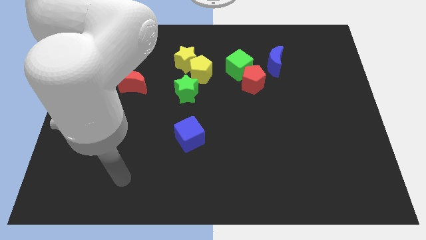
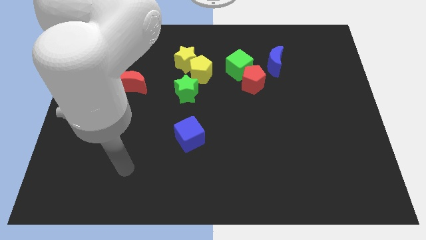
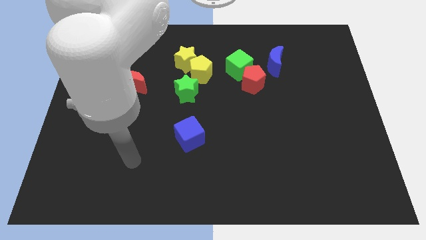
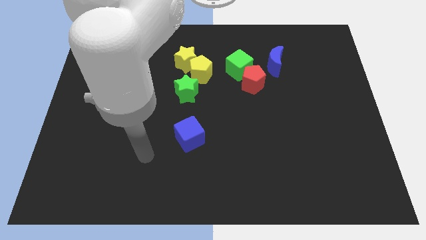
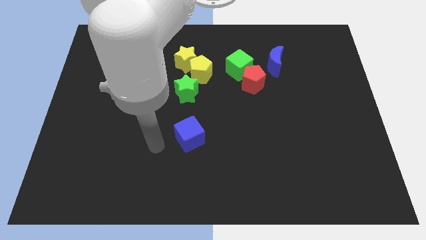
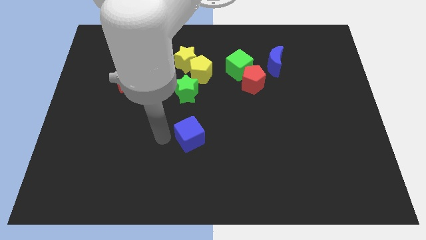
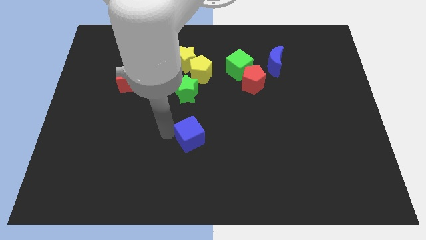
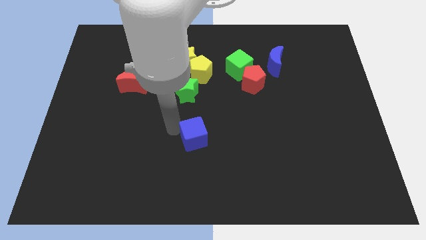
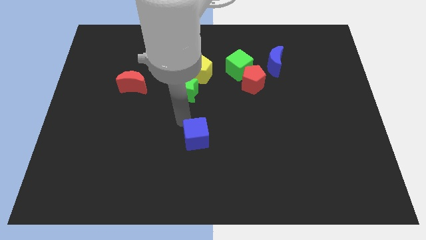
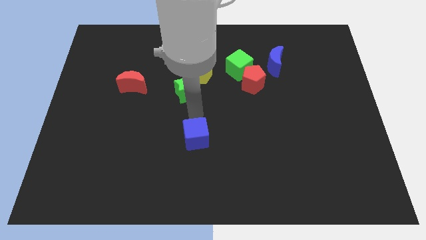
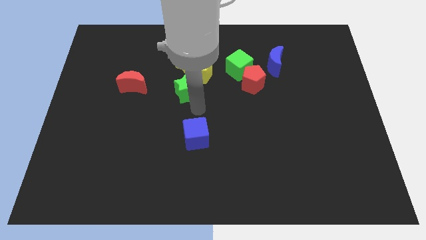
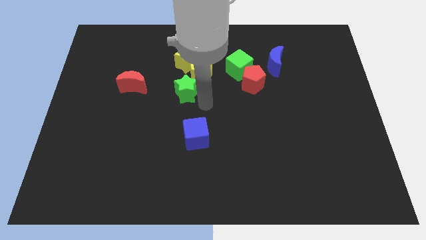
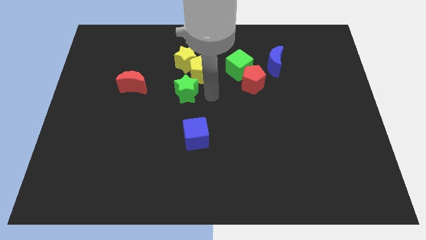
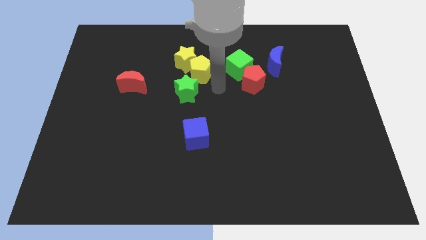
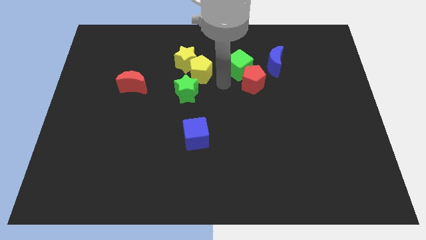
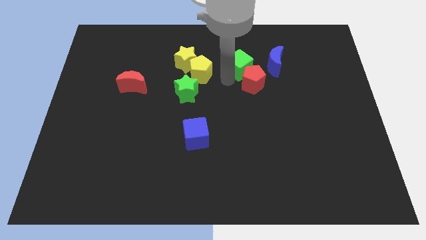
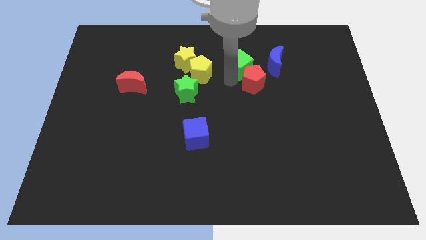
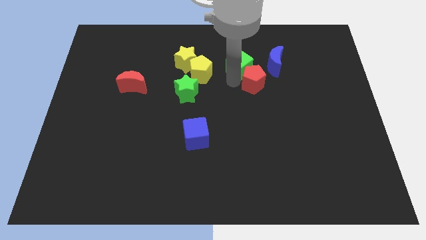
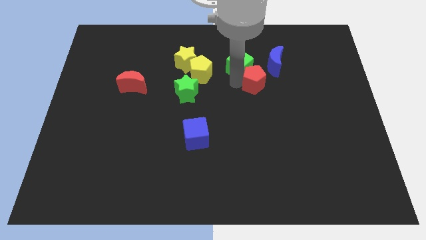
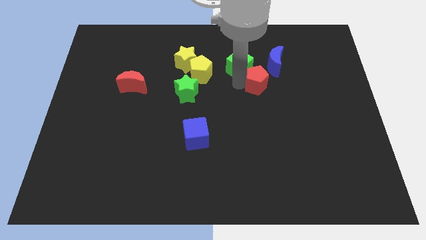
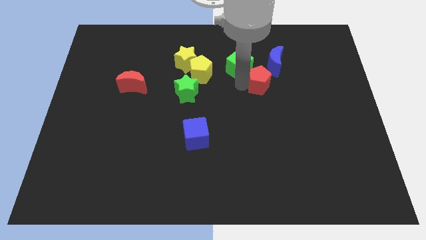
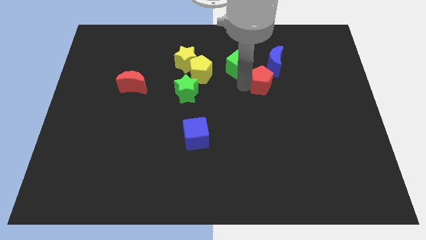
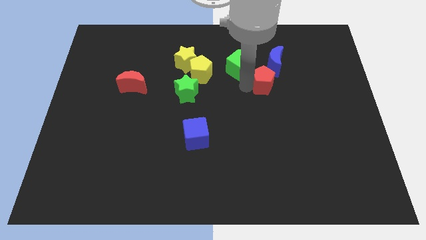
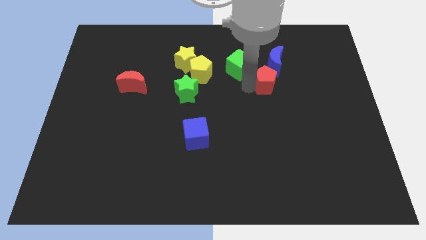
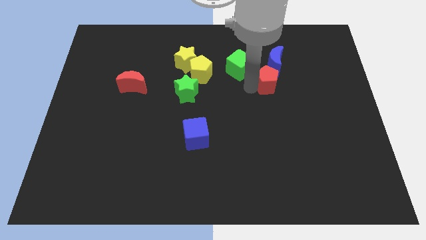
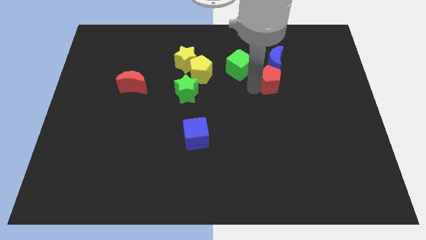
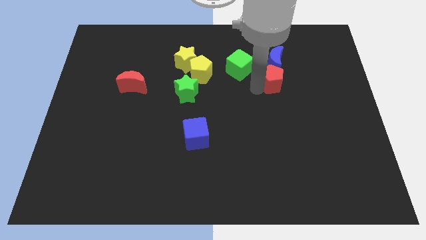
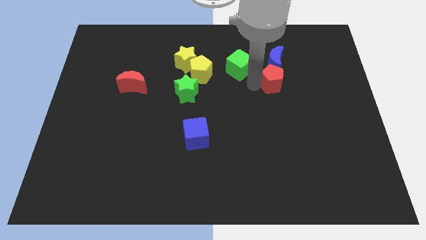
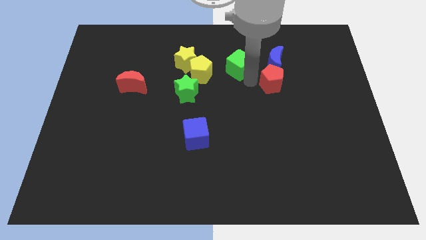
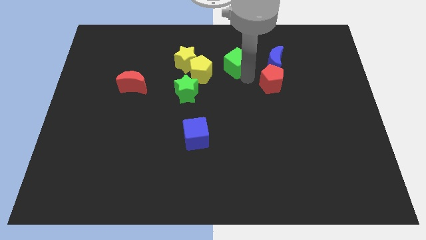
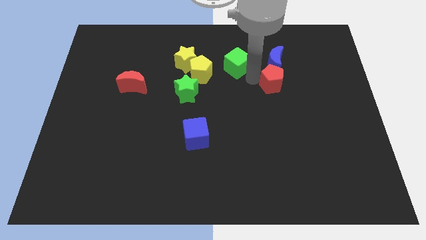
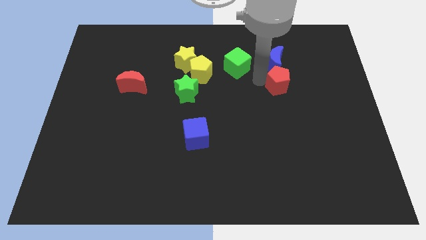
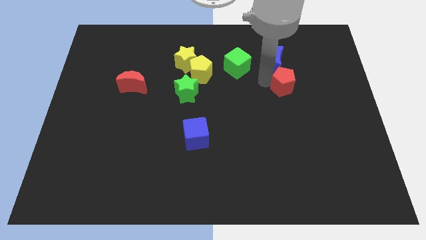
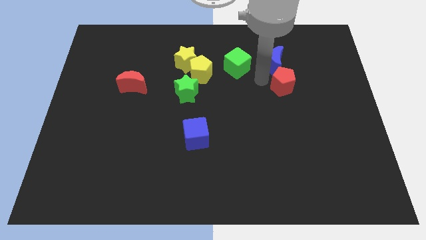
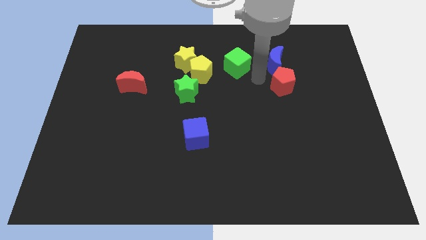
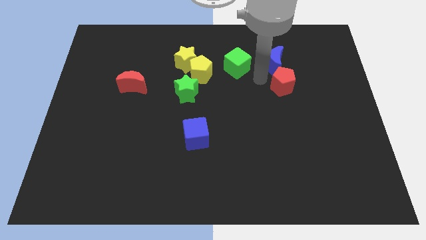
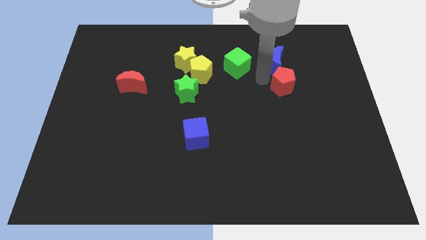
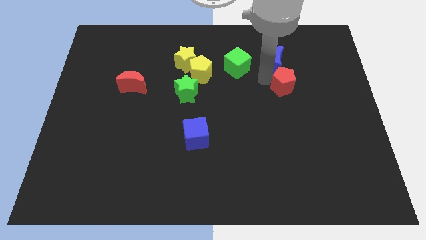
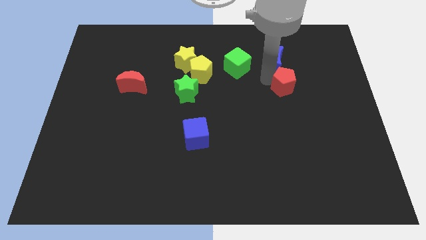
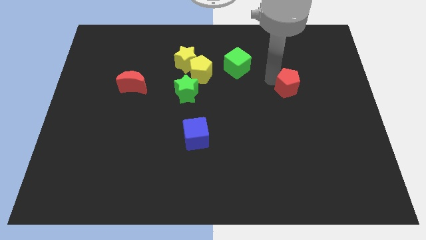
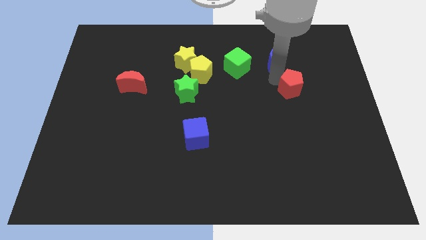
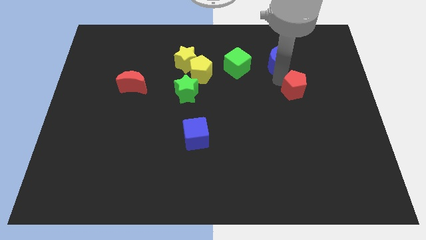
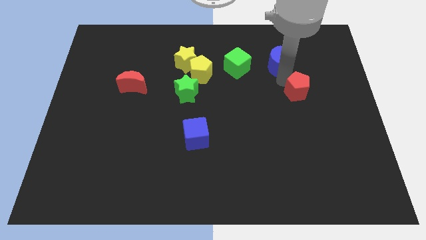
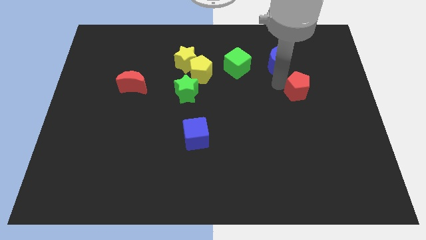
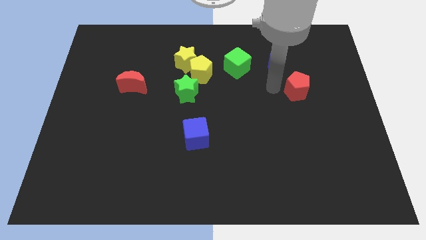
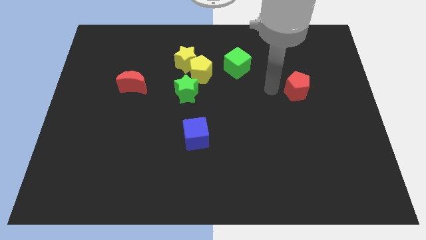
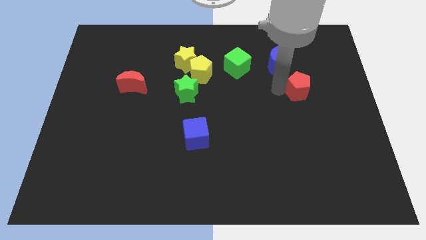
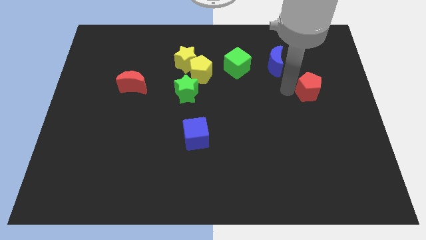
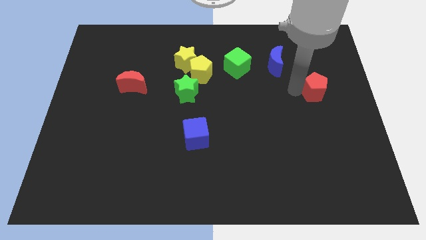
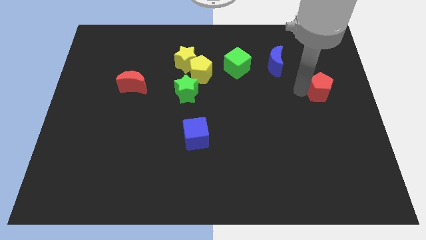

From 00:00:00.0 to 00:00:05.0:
push the red pentagon to the center right

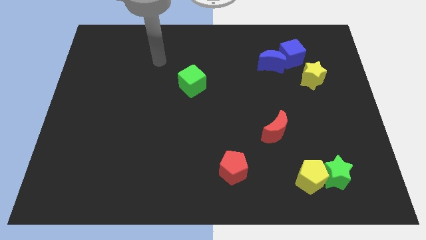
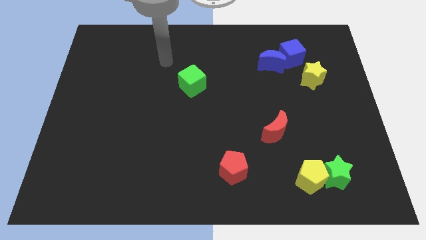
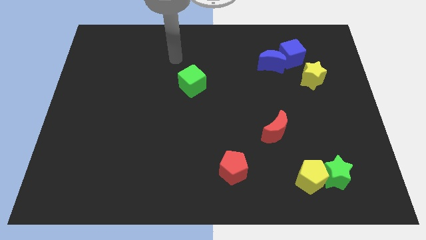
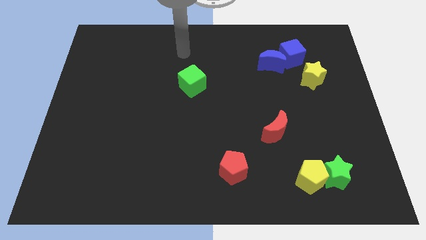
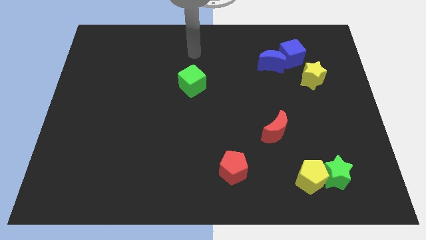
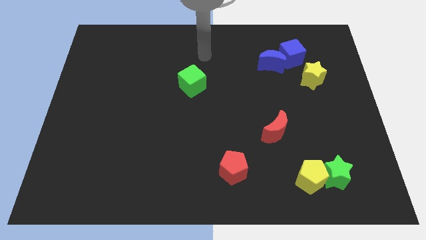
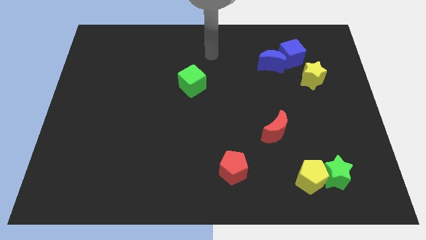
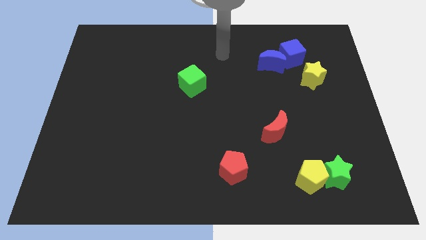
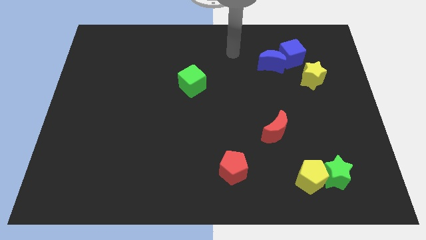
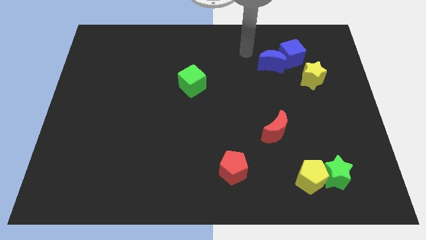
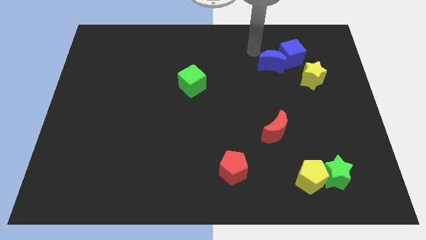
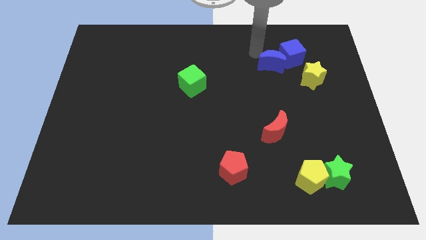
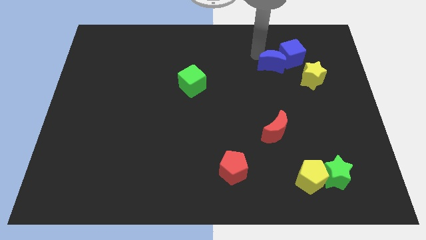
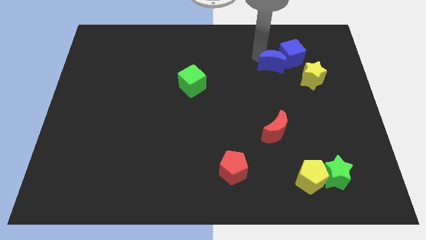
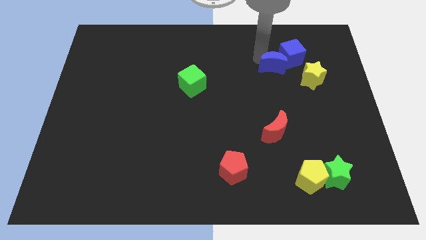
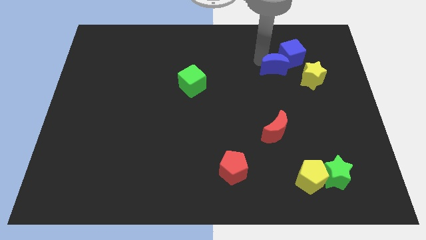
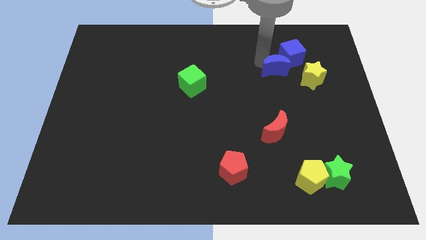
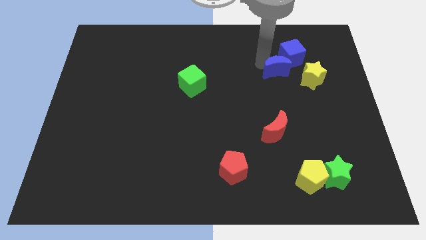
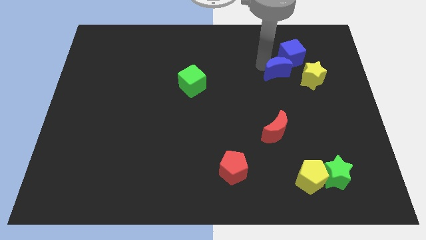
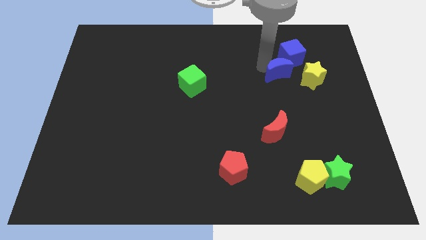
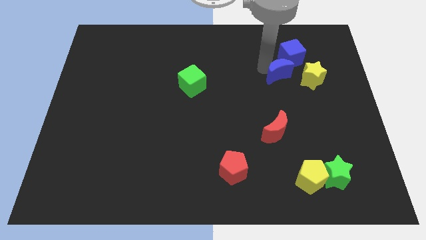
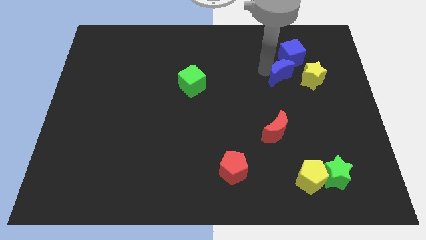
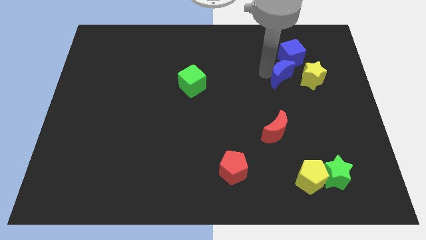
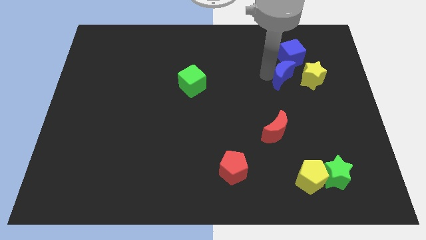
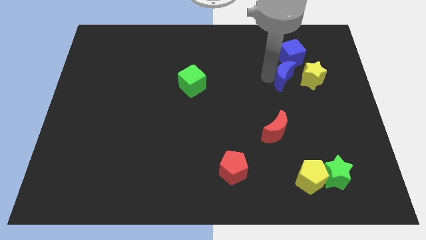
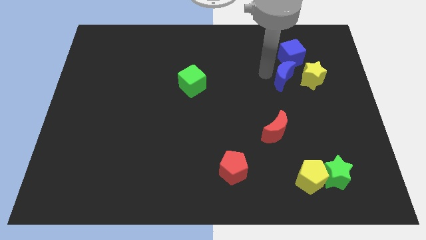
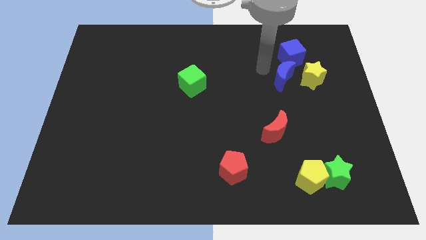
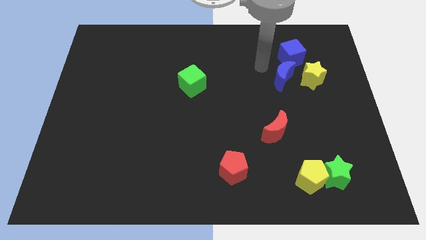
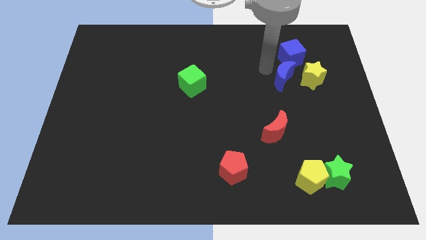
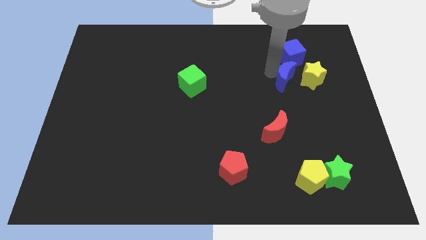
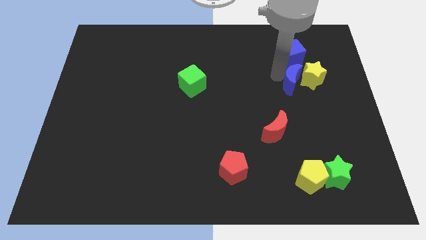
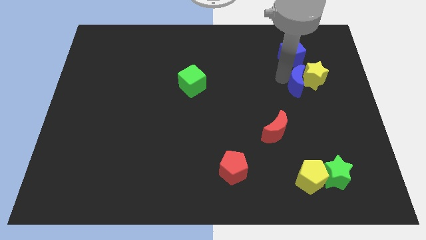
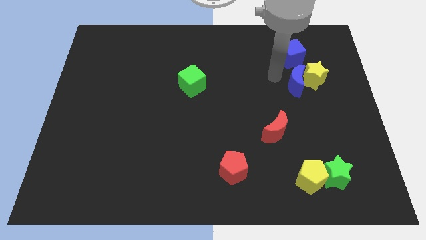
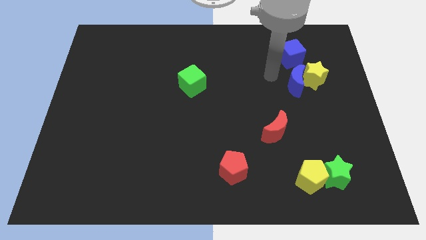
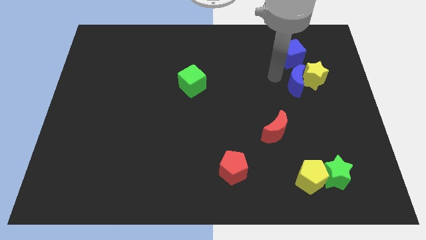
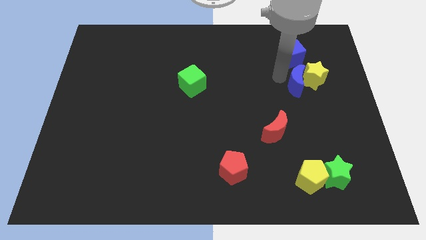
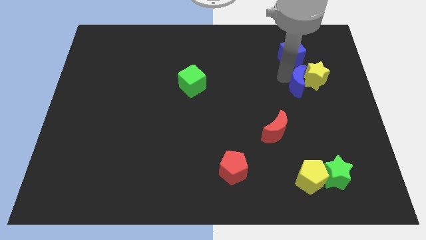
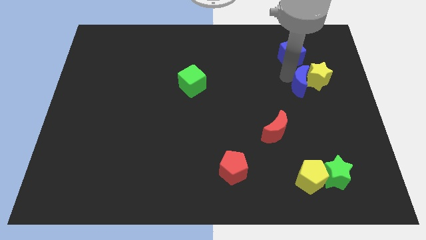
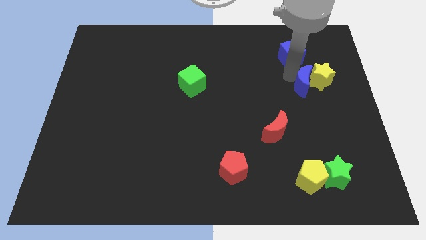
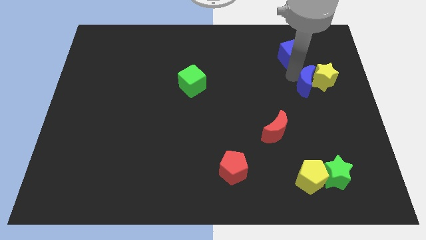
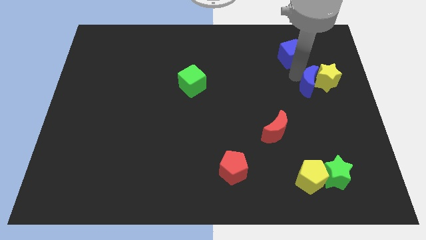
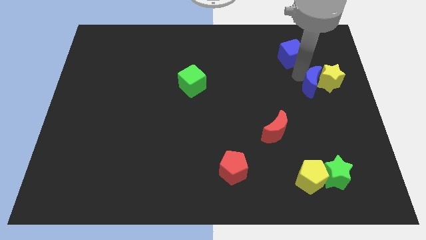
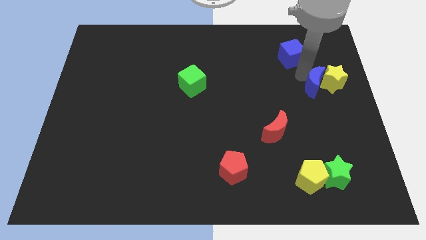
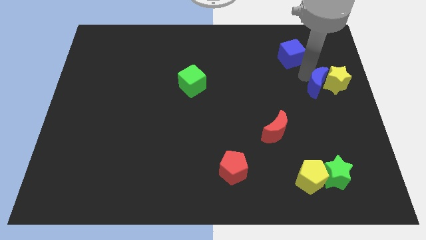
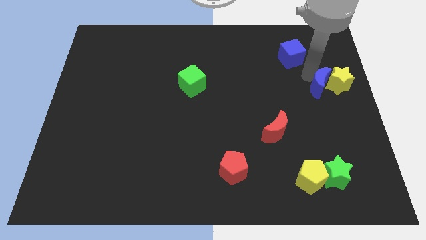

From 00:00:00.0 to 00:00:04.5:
slide the blue moon to the center right
